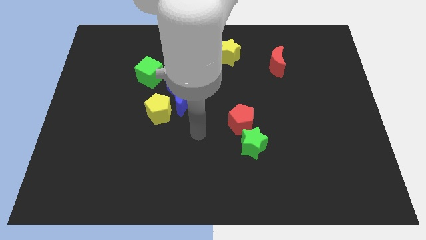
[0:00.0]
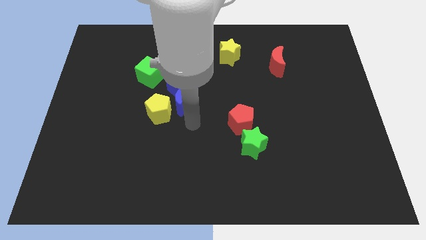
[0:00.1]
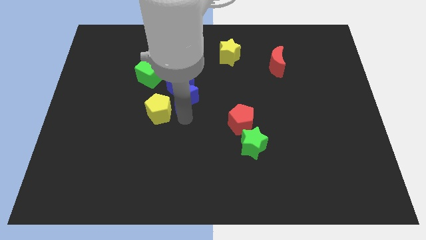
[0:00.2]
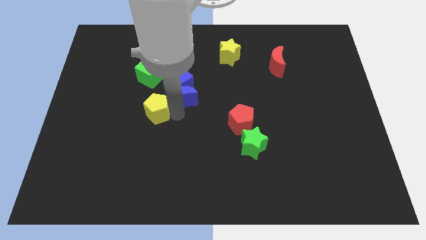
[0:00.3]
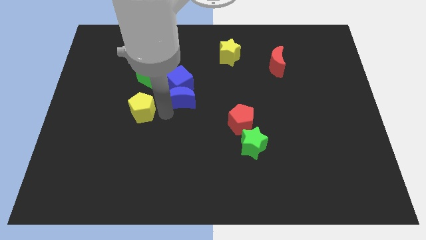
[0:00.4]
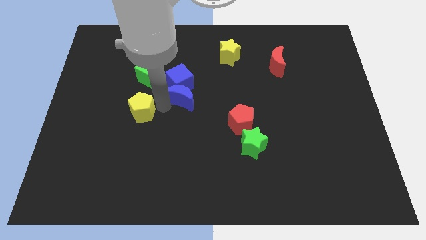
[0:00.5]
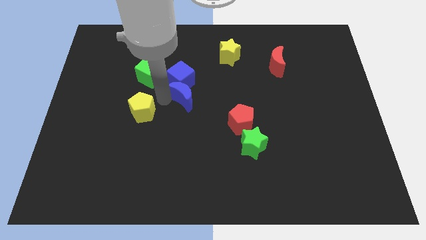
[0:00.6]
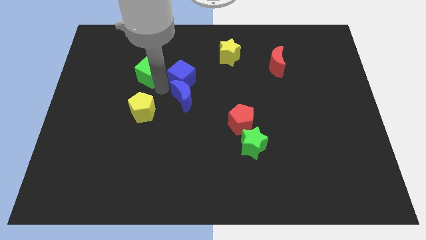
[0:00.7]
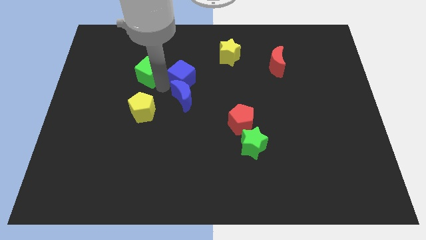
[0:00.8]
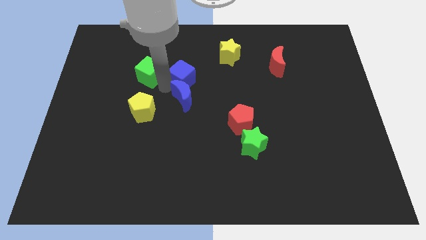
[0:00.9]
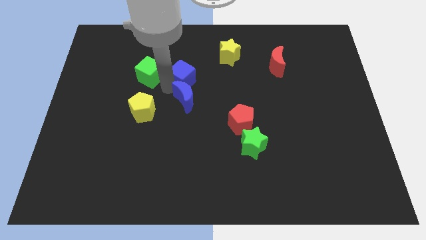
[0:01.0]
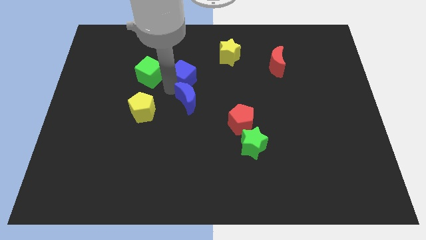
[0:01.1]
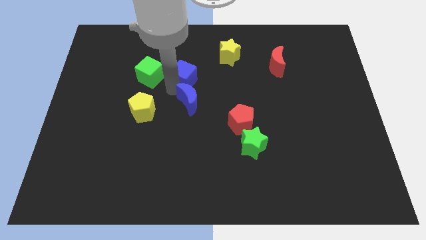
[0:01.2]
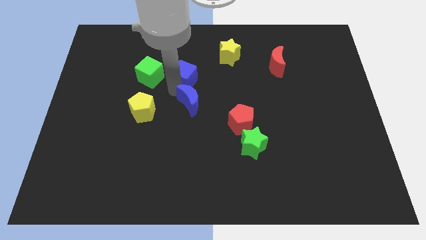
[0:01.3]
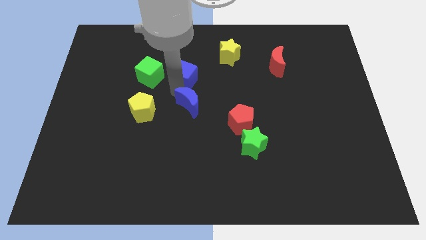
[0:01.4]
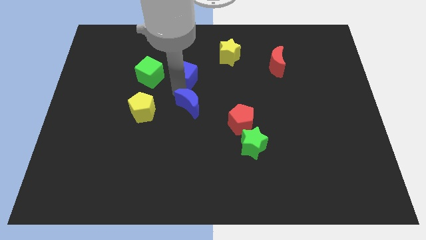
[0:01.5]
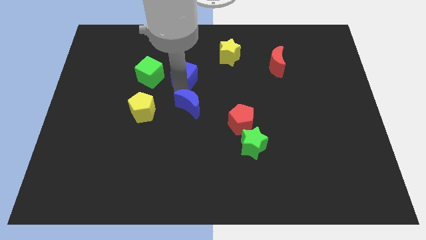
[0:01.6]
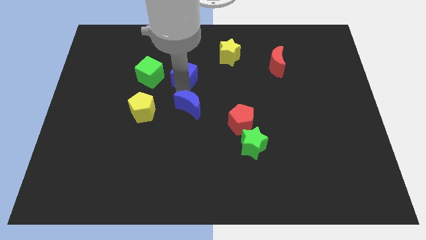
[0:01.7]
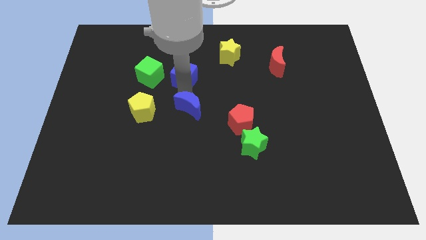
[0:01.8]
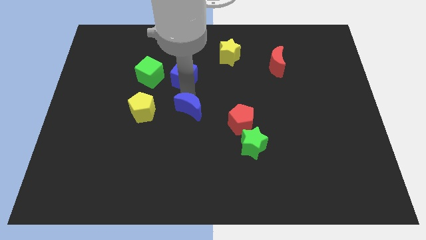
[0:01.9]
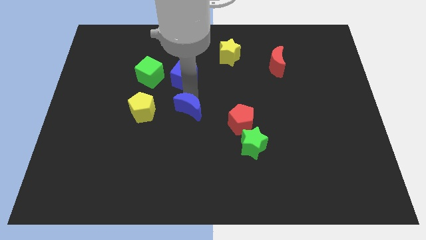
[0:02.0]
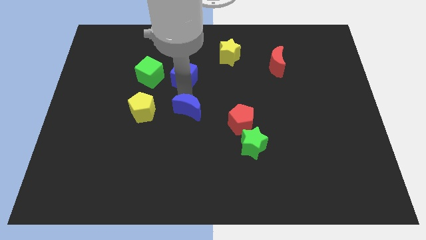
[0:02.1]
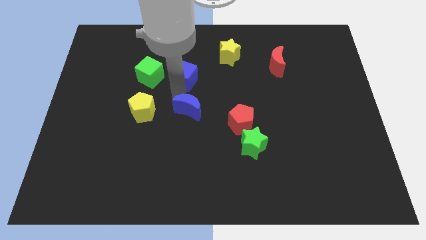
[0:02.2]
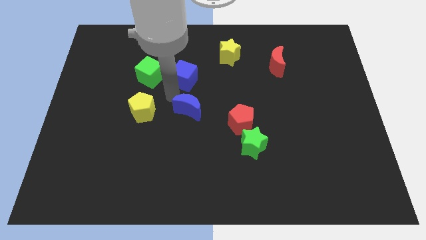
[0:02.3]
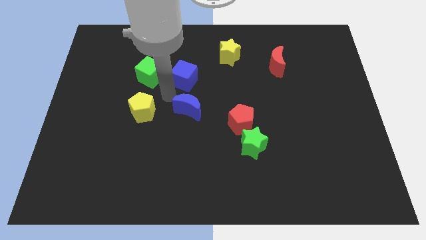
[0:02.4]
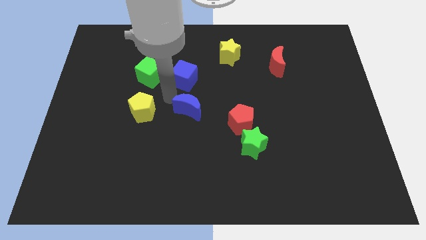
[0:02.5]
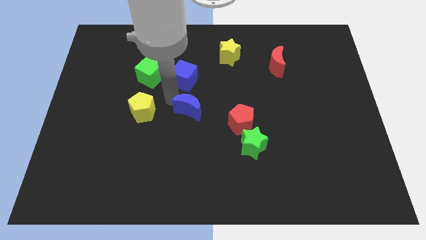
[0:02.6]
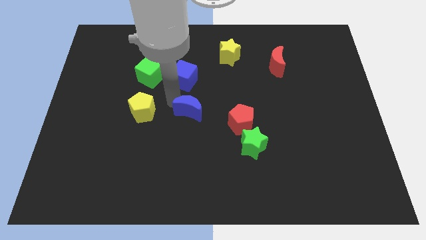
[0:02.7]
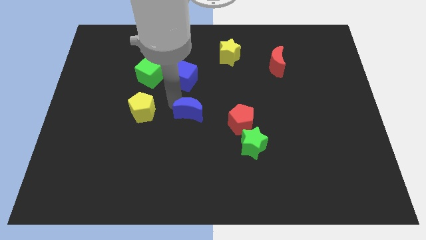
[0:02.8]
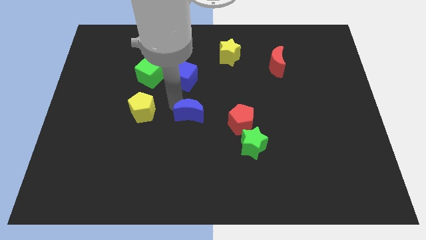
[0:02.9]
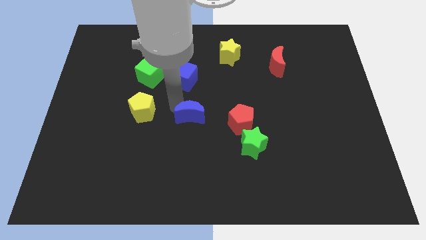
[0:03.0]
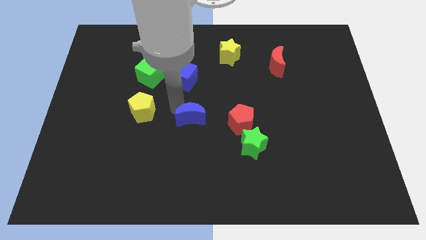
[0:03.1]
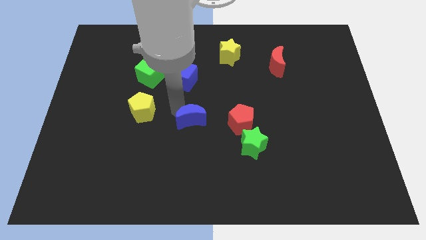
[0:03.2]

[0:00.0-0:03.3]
pull the blue moon apart from the blue cube and yellow pentagon

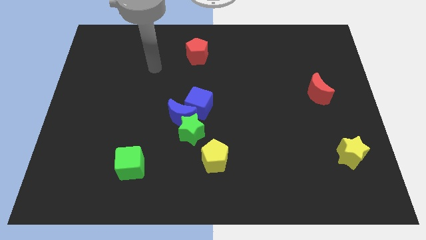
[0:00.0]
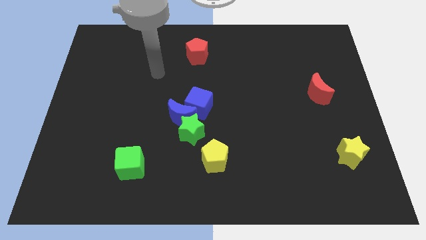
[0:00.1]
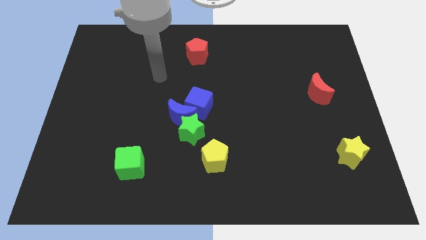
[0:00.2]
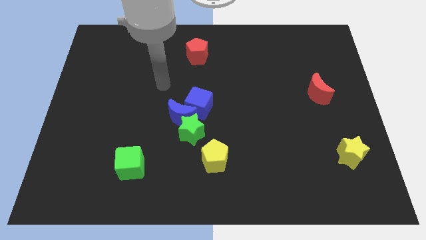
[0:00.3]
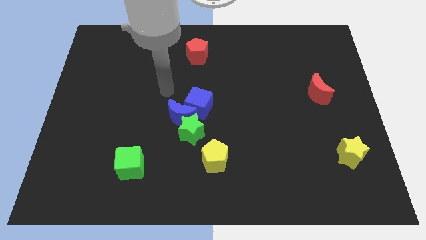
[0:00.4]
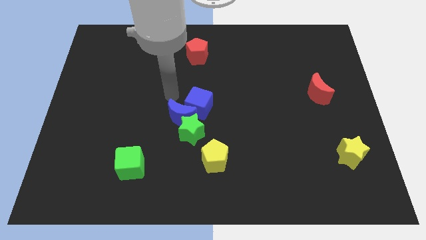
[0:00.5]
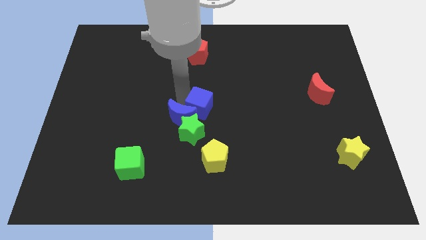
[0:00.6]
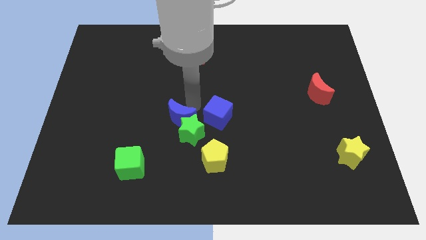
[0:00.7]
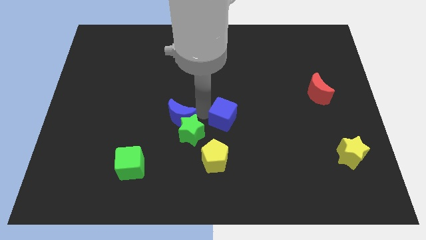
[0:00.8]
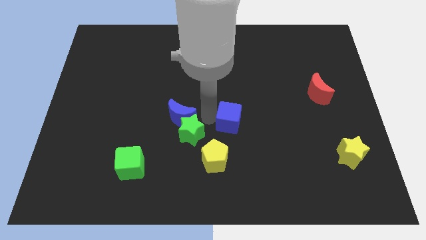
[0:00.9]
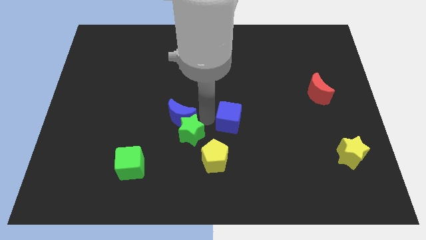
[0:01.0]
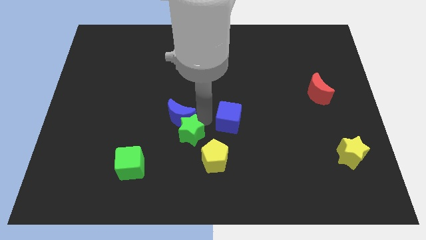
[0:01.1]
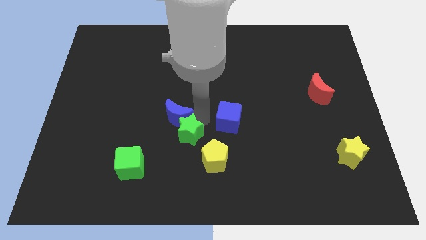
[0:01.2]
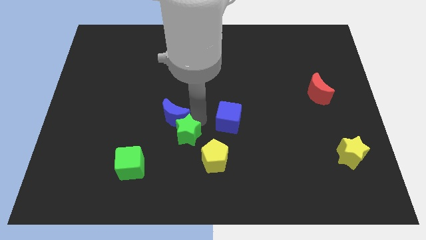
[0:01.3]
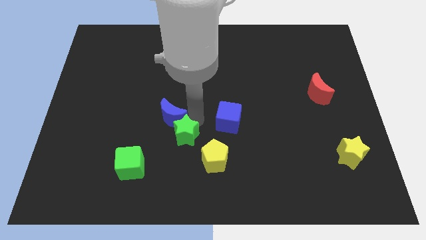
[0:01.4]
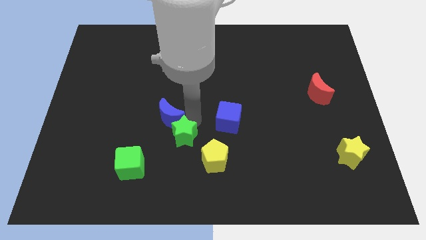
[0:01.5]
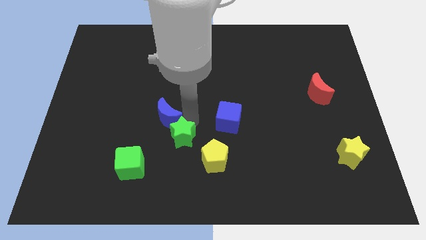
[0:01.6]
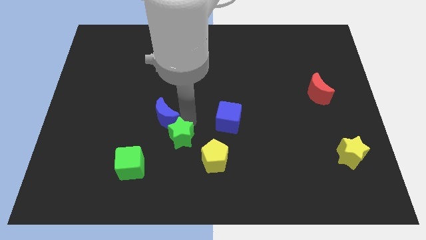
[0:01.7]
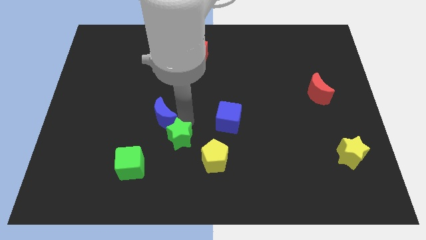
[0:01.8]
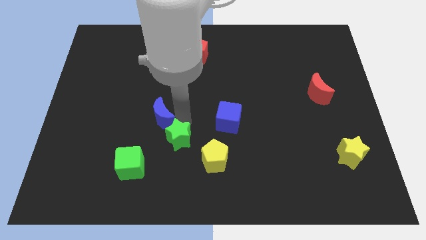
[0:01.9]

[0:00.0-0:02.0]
pull the blue moon apart from the green star and blue cube

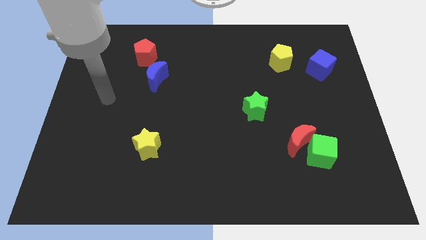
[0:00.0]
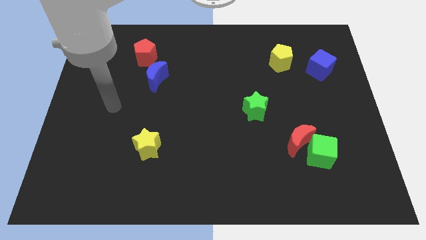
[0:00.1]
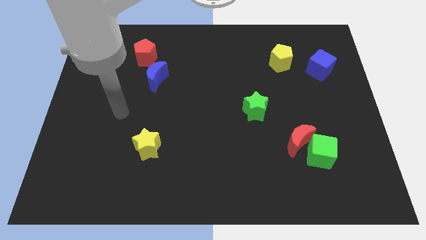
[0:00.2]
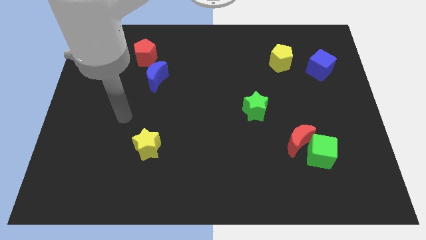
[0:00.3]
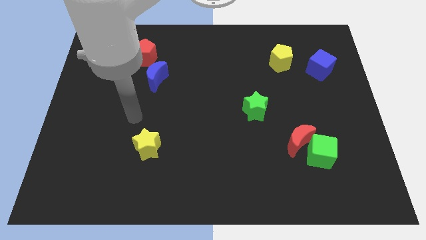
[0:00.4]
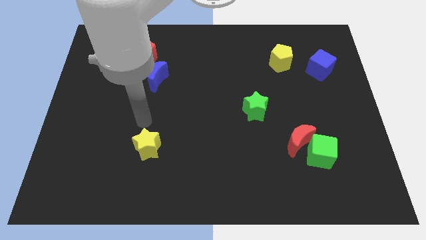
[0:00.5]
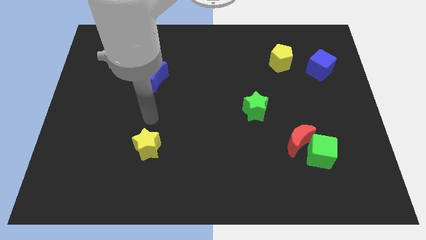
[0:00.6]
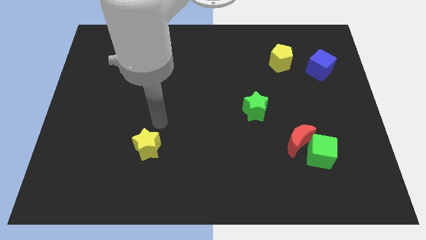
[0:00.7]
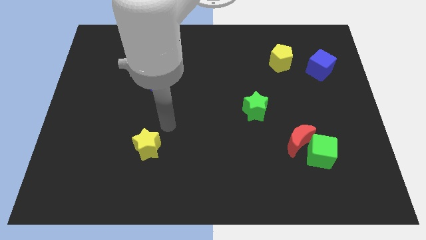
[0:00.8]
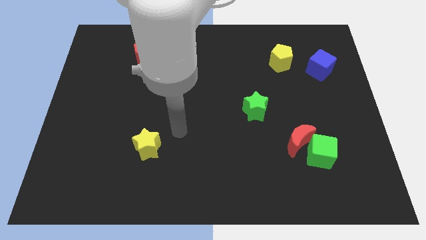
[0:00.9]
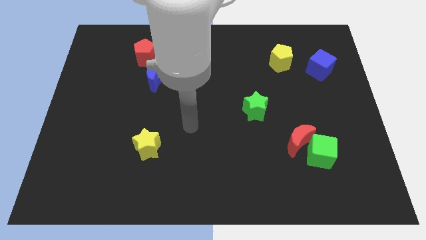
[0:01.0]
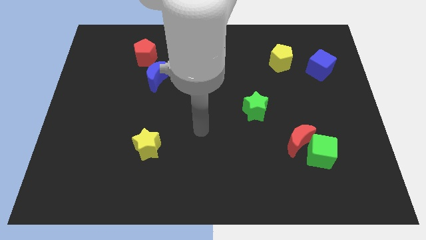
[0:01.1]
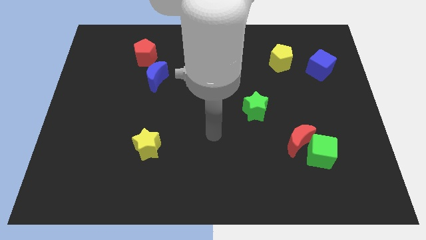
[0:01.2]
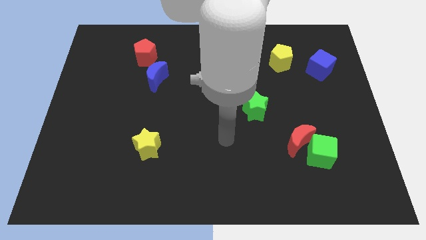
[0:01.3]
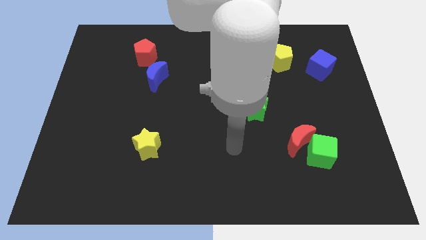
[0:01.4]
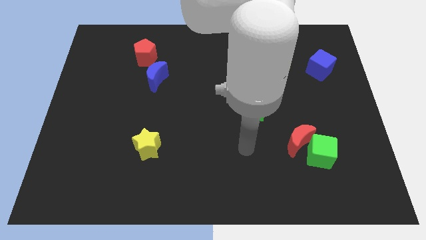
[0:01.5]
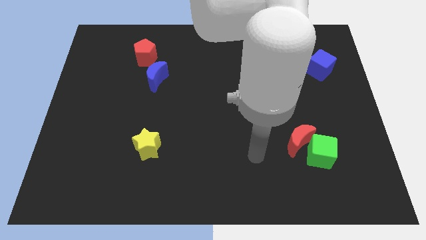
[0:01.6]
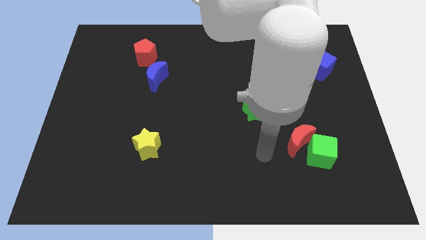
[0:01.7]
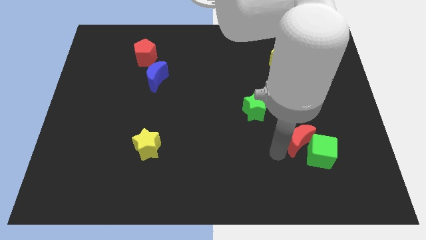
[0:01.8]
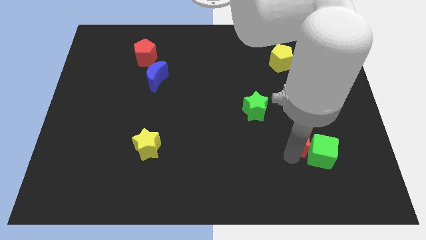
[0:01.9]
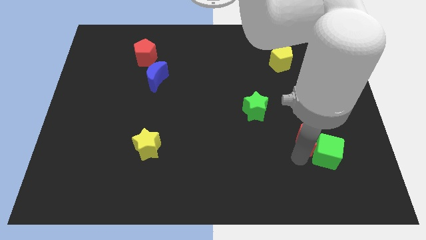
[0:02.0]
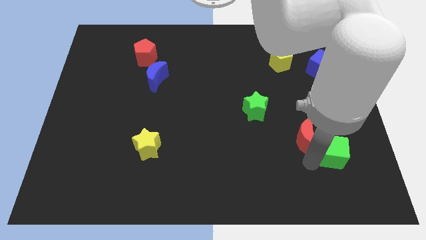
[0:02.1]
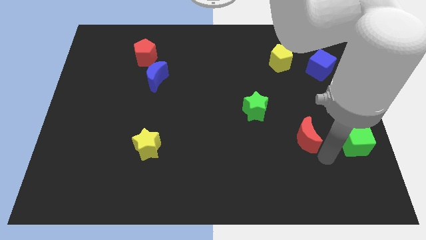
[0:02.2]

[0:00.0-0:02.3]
pull the red moon apart from the green cube

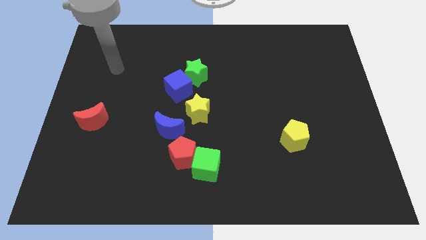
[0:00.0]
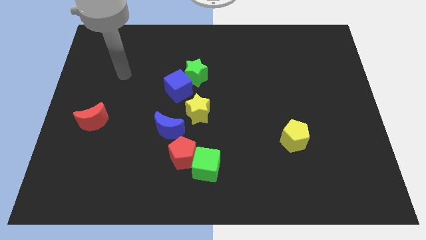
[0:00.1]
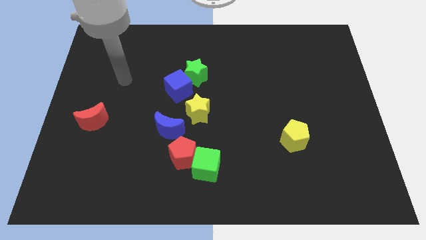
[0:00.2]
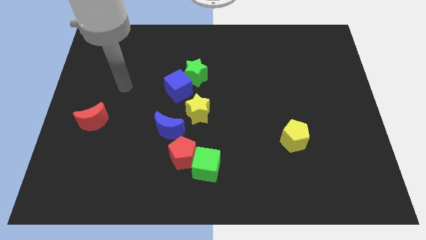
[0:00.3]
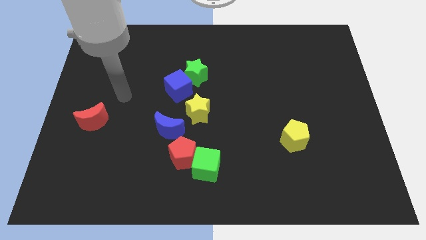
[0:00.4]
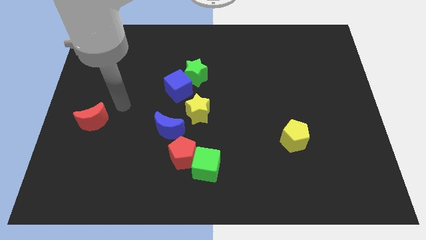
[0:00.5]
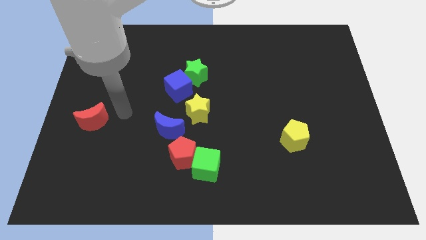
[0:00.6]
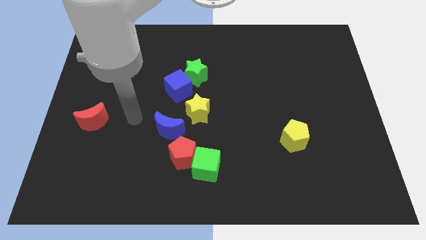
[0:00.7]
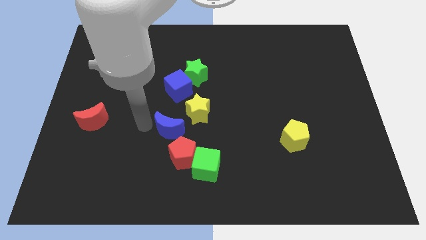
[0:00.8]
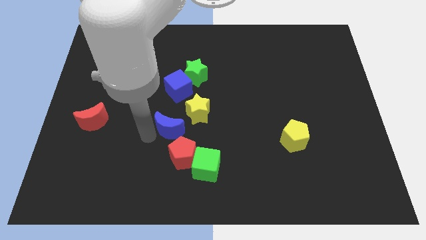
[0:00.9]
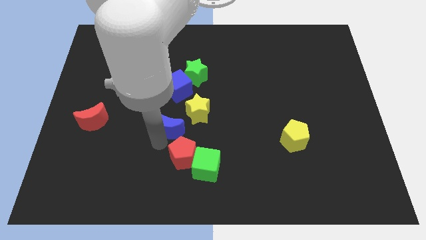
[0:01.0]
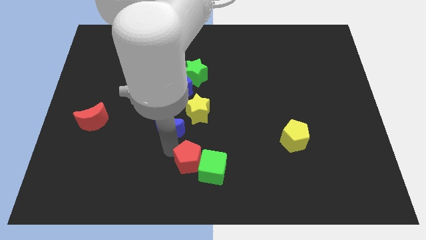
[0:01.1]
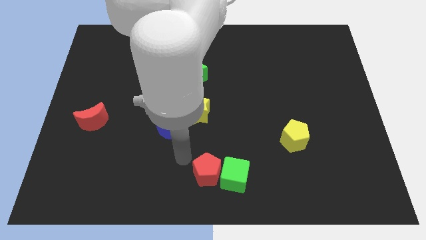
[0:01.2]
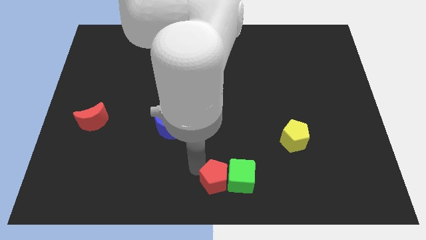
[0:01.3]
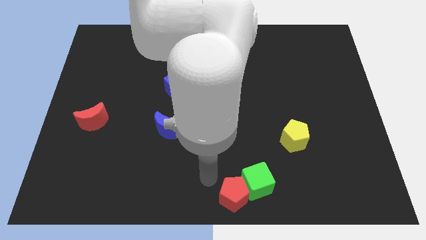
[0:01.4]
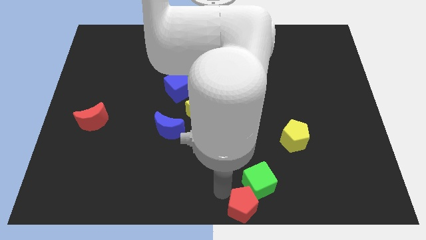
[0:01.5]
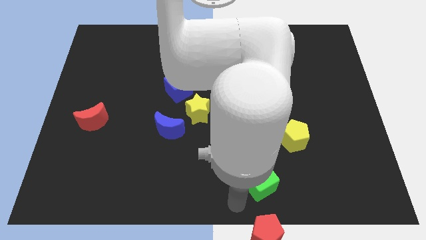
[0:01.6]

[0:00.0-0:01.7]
move the green cube away from the red pentagon
